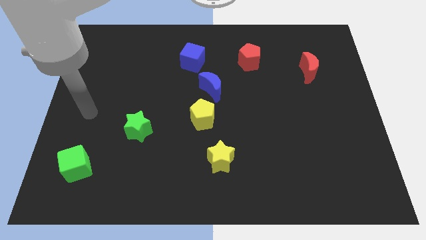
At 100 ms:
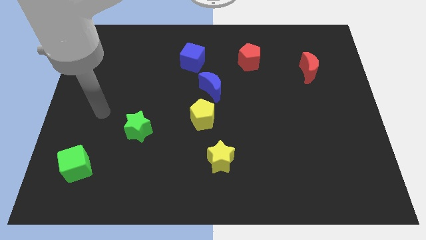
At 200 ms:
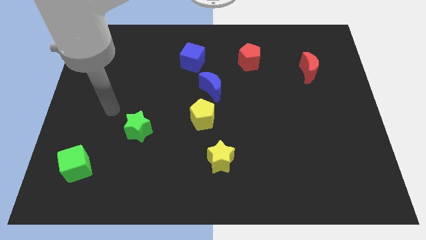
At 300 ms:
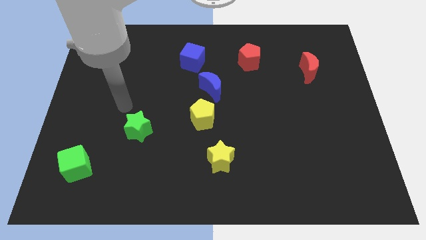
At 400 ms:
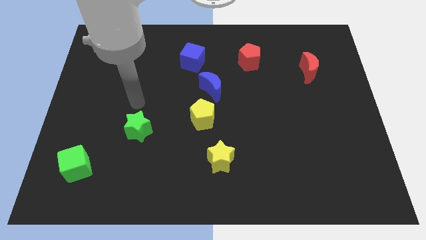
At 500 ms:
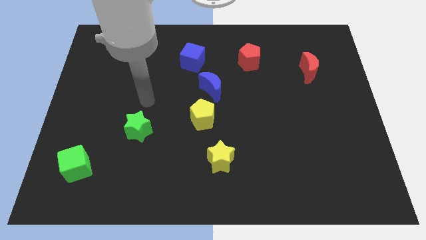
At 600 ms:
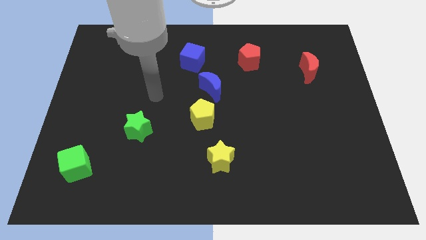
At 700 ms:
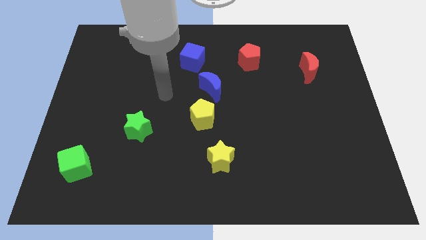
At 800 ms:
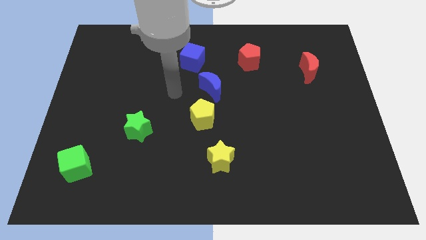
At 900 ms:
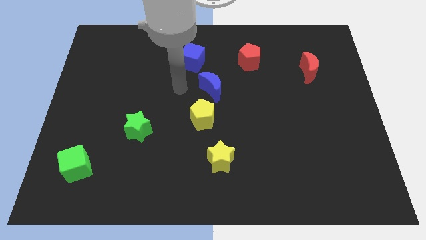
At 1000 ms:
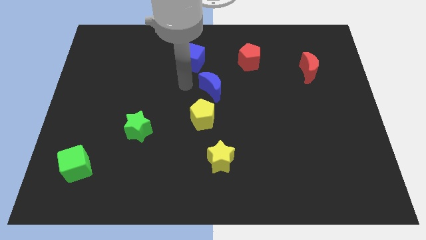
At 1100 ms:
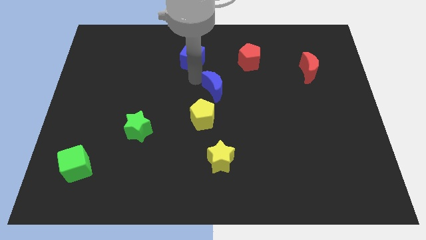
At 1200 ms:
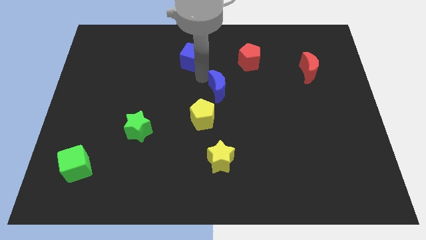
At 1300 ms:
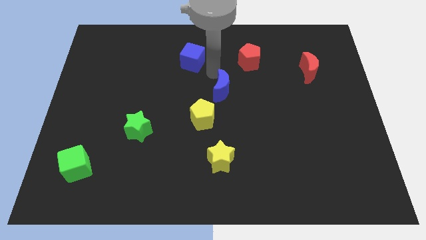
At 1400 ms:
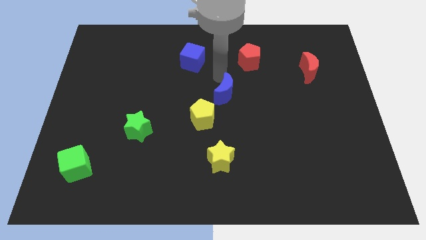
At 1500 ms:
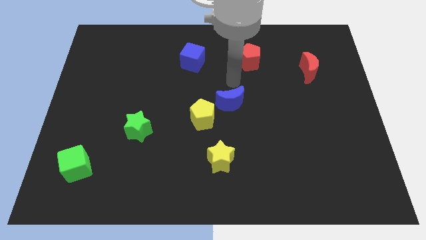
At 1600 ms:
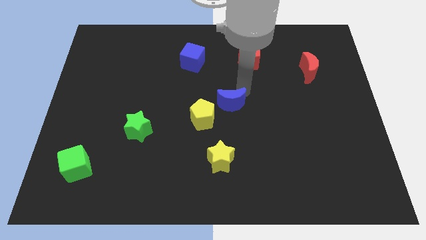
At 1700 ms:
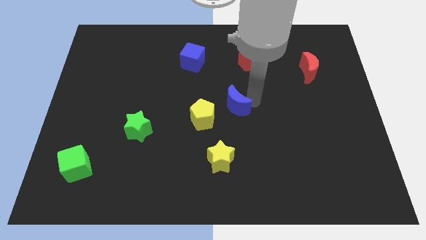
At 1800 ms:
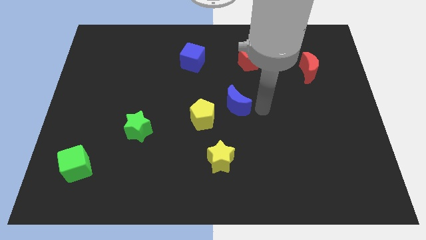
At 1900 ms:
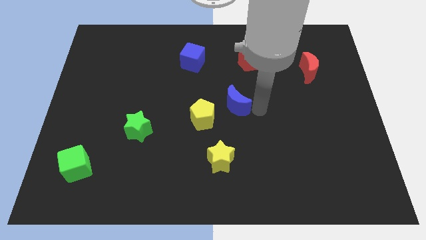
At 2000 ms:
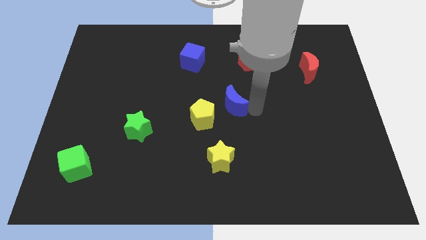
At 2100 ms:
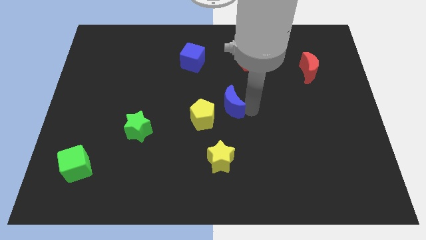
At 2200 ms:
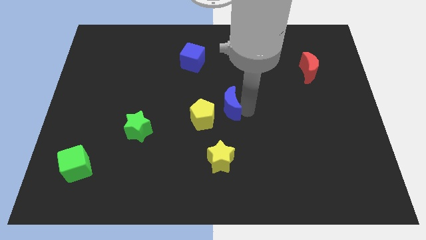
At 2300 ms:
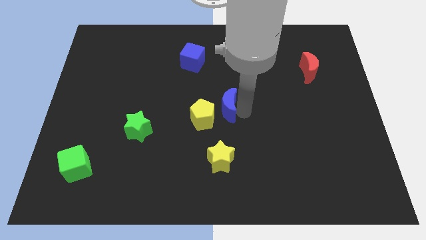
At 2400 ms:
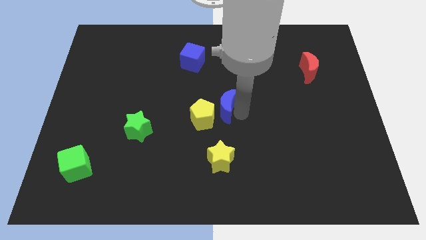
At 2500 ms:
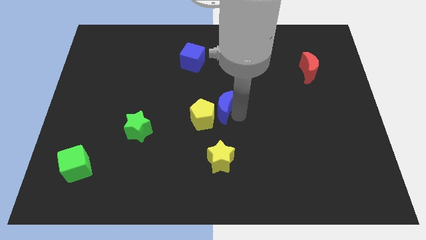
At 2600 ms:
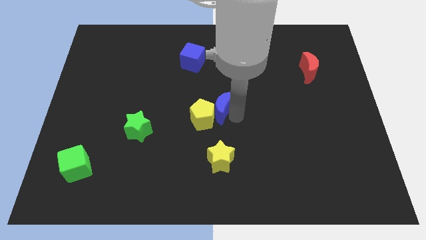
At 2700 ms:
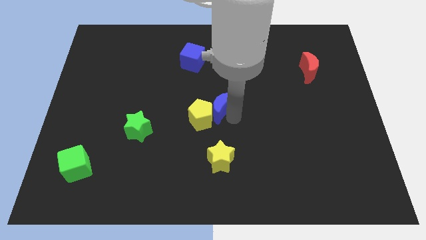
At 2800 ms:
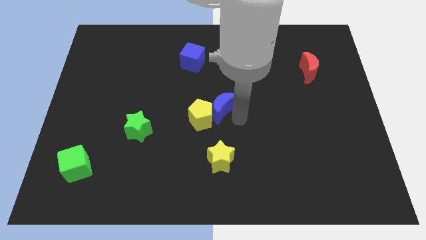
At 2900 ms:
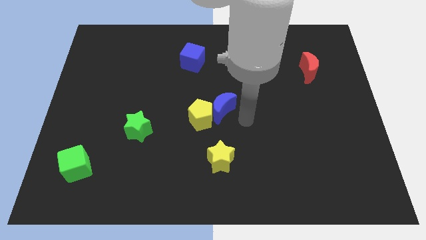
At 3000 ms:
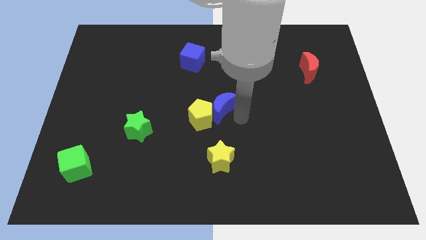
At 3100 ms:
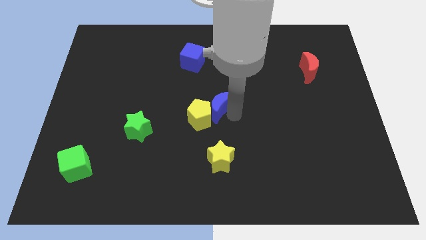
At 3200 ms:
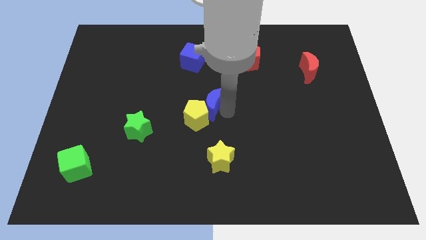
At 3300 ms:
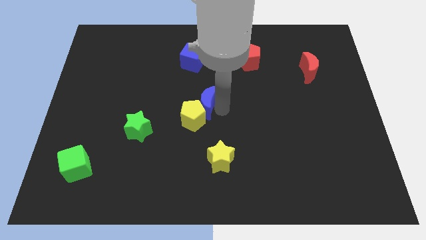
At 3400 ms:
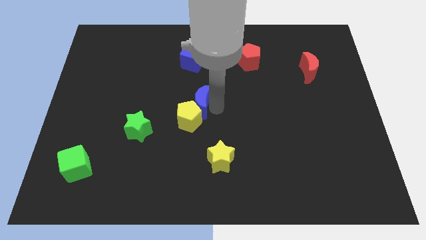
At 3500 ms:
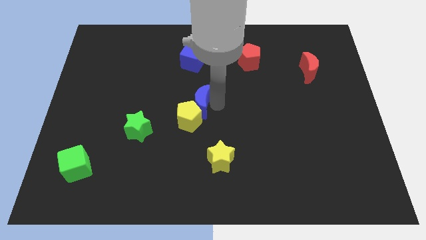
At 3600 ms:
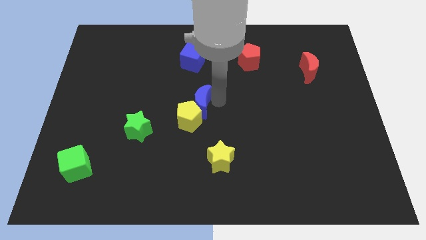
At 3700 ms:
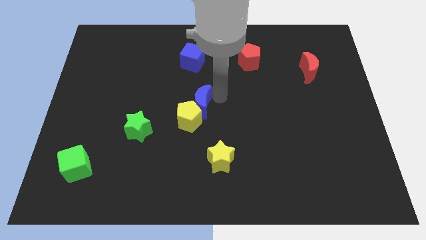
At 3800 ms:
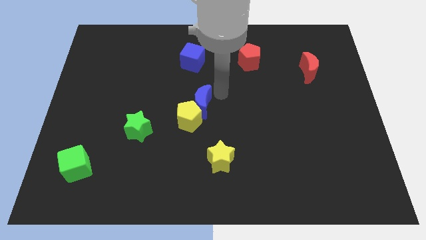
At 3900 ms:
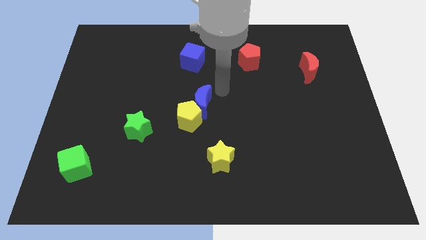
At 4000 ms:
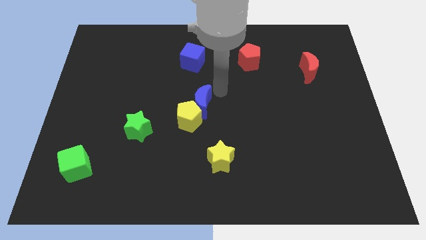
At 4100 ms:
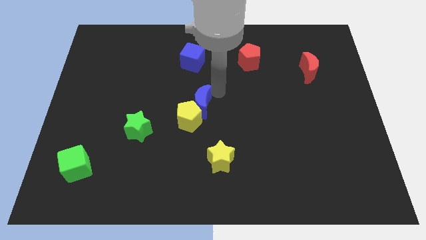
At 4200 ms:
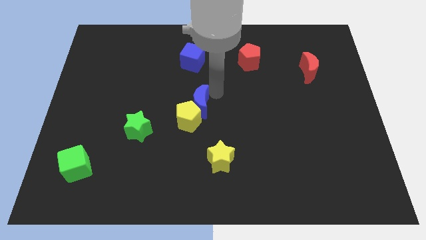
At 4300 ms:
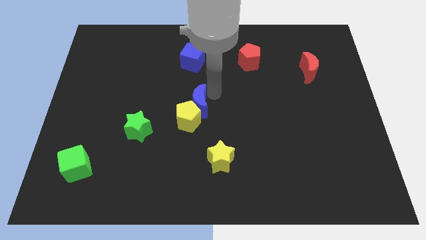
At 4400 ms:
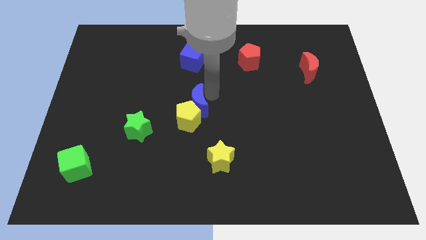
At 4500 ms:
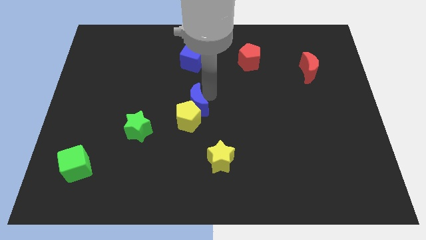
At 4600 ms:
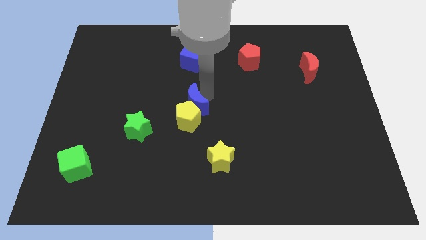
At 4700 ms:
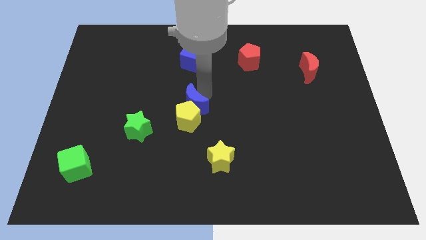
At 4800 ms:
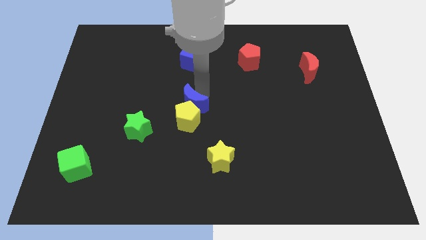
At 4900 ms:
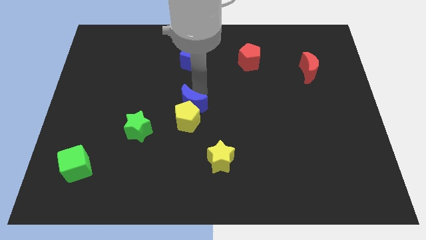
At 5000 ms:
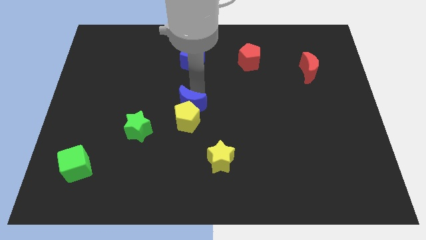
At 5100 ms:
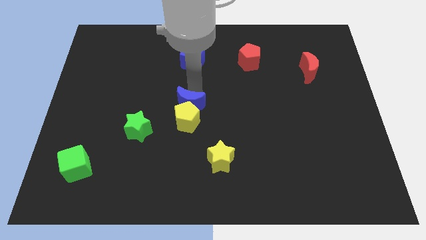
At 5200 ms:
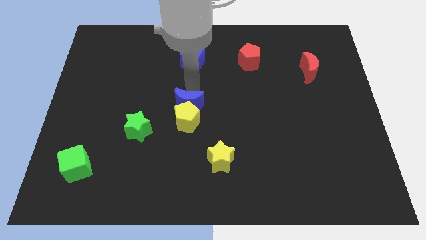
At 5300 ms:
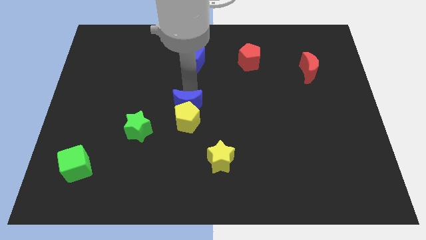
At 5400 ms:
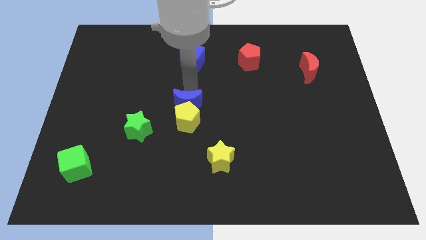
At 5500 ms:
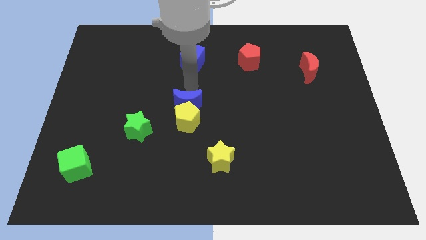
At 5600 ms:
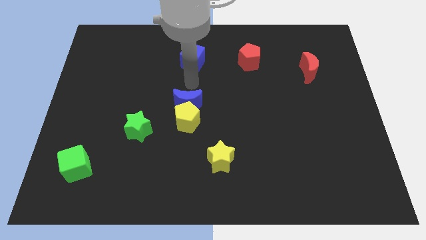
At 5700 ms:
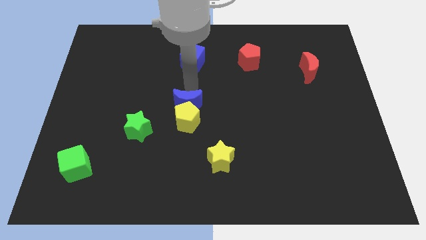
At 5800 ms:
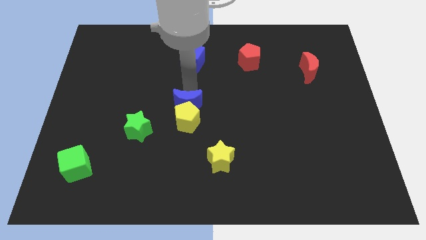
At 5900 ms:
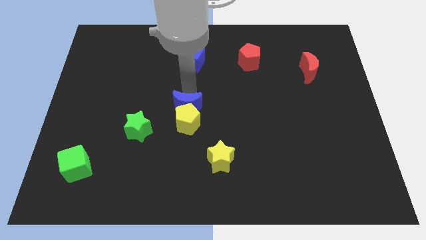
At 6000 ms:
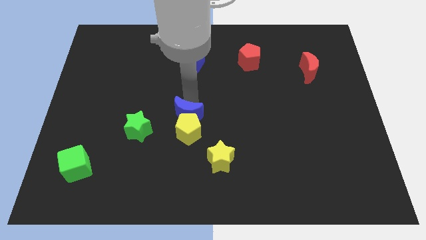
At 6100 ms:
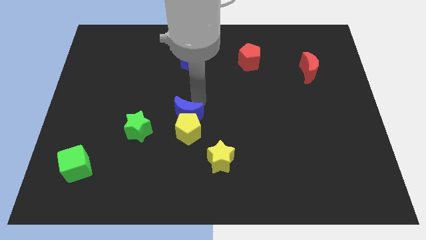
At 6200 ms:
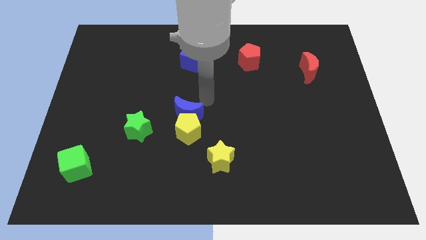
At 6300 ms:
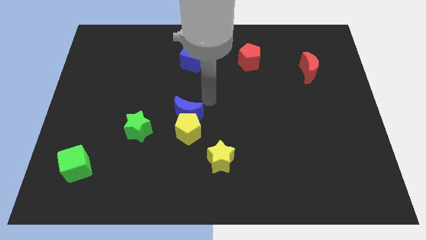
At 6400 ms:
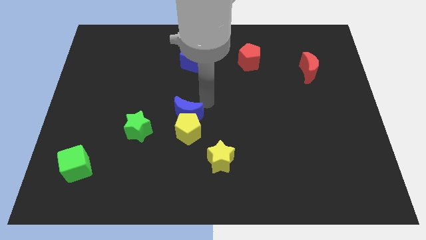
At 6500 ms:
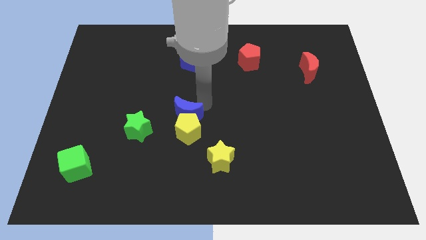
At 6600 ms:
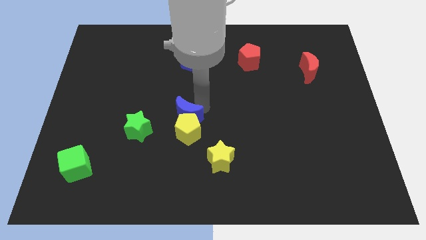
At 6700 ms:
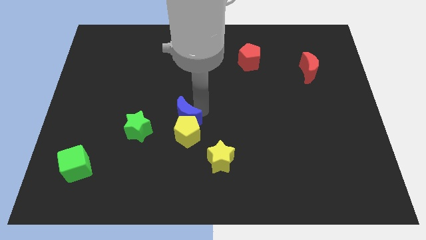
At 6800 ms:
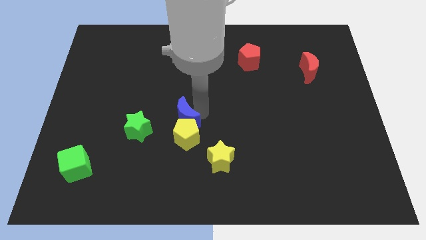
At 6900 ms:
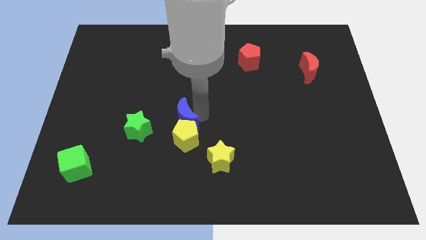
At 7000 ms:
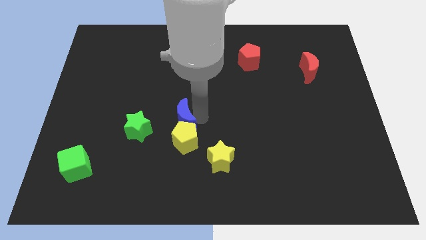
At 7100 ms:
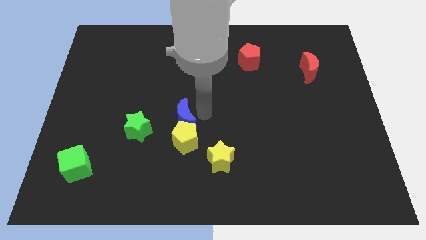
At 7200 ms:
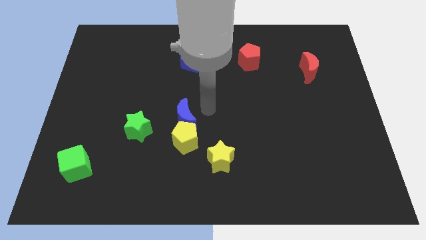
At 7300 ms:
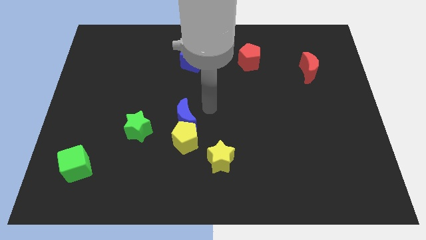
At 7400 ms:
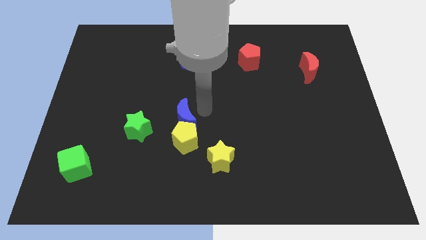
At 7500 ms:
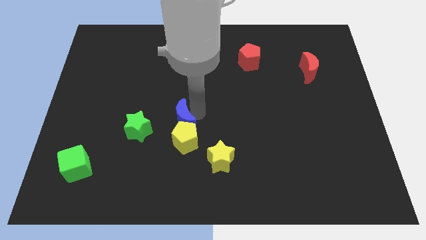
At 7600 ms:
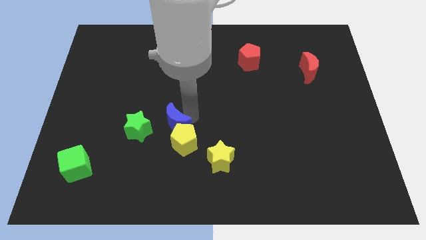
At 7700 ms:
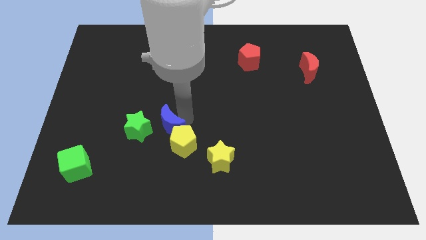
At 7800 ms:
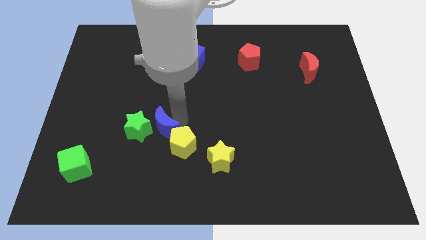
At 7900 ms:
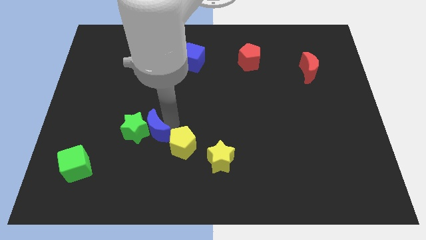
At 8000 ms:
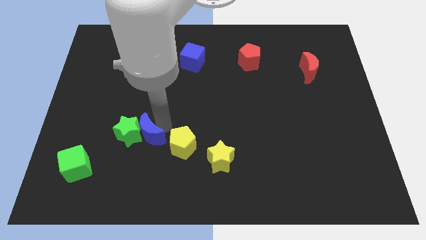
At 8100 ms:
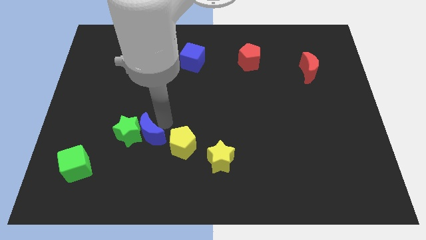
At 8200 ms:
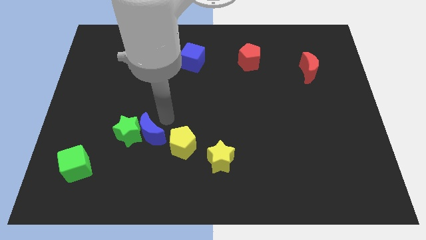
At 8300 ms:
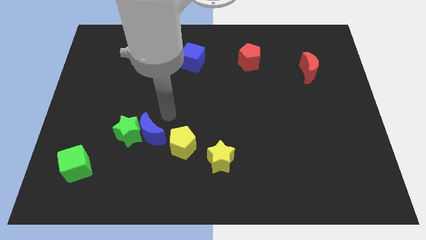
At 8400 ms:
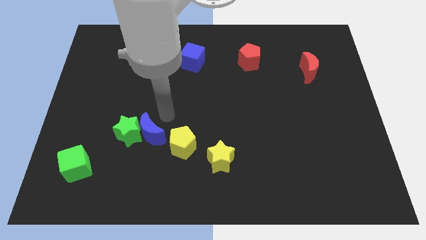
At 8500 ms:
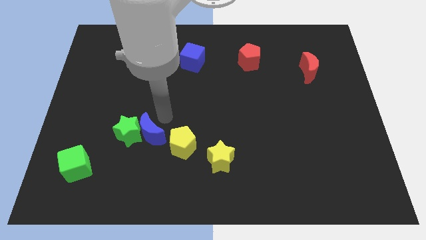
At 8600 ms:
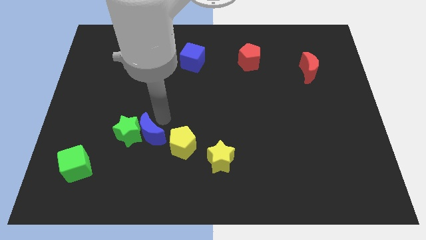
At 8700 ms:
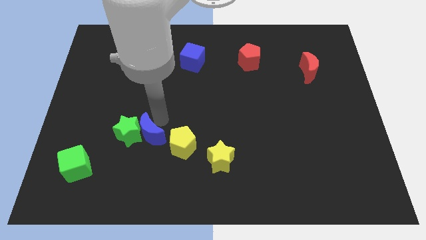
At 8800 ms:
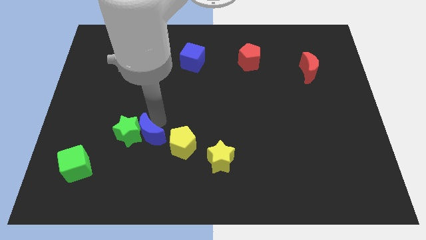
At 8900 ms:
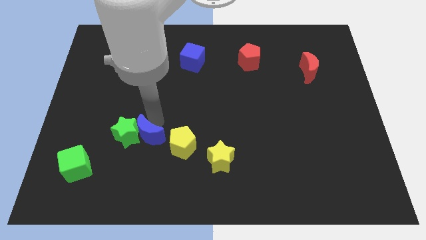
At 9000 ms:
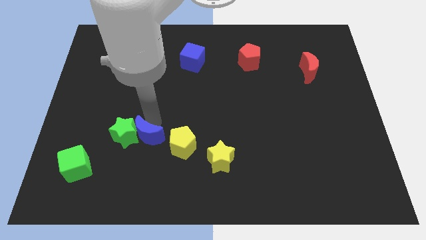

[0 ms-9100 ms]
move the blue moon downwards and left diagonally
